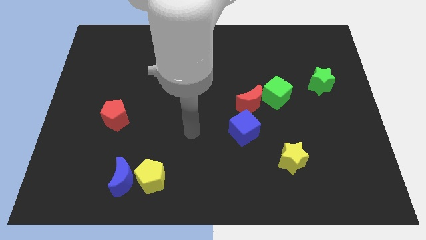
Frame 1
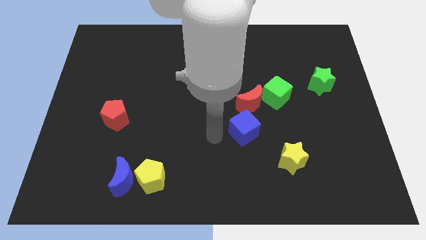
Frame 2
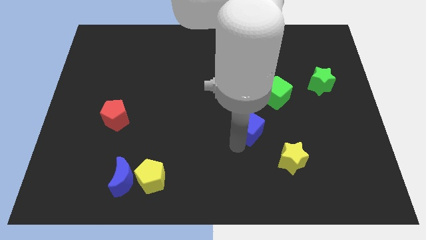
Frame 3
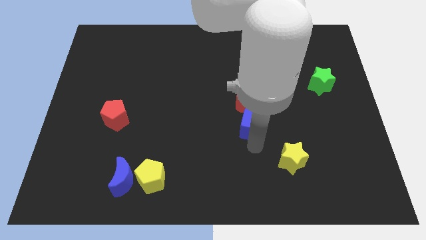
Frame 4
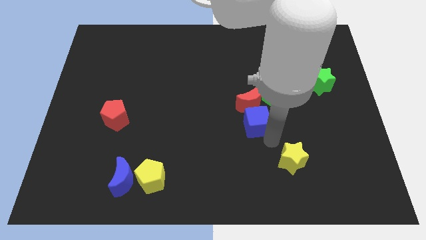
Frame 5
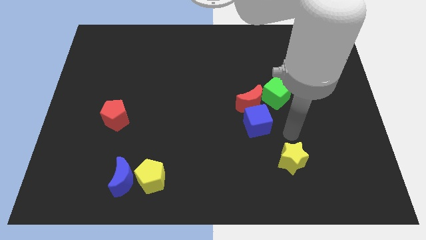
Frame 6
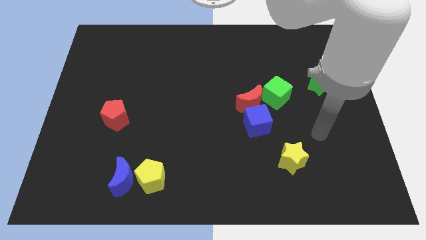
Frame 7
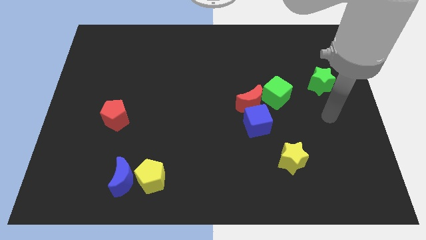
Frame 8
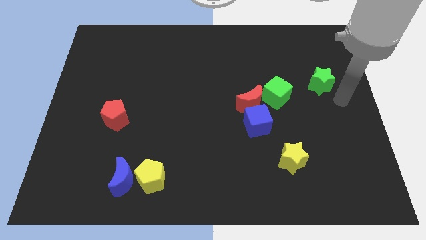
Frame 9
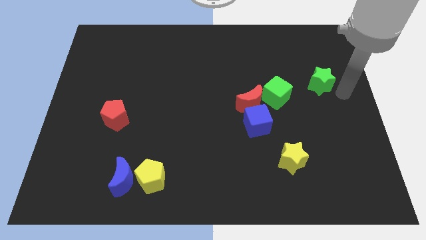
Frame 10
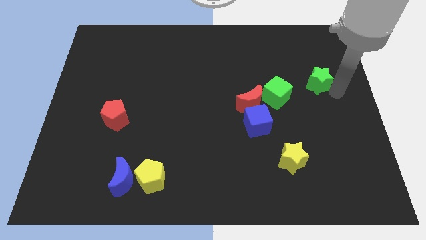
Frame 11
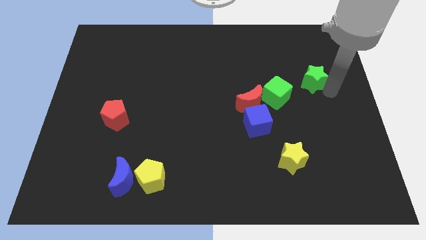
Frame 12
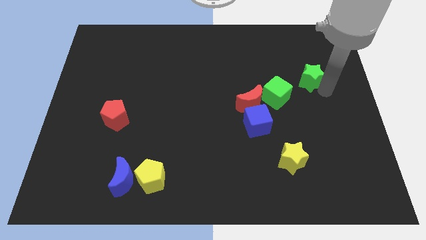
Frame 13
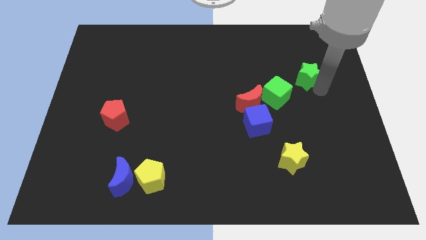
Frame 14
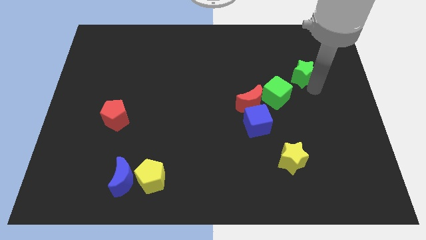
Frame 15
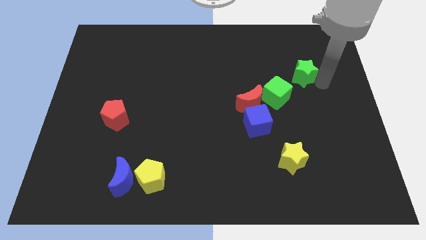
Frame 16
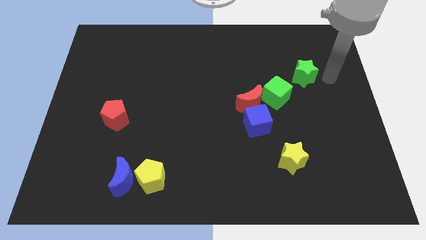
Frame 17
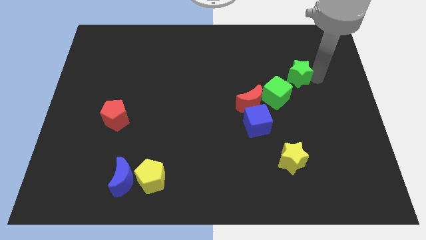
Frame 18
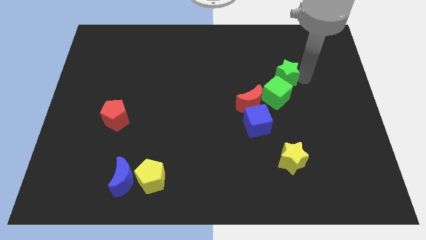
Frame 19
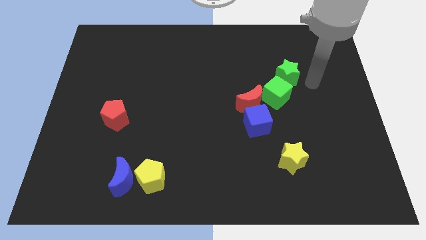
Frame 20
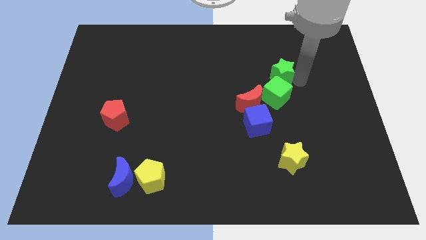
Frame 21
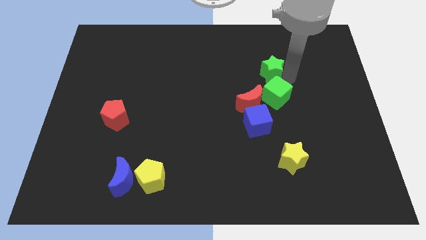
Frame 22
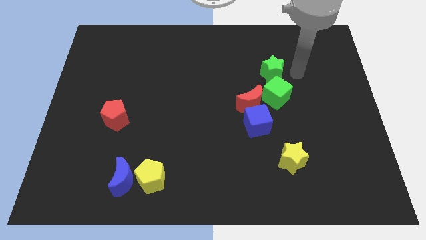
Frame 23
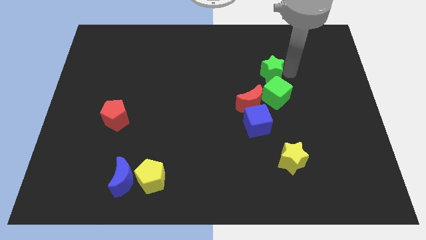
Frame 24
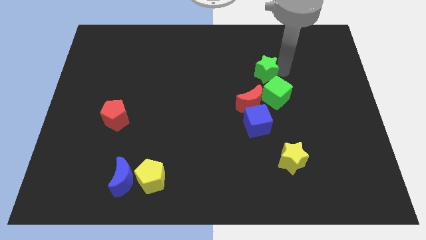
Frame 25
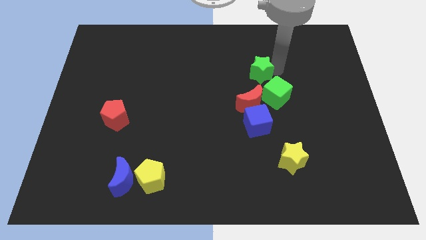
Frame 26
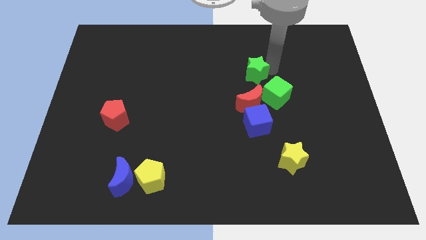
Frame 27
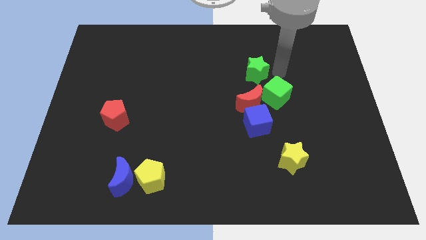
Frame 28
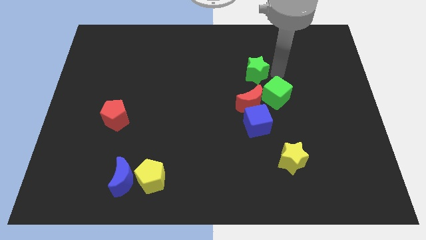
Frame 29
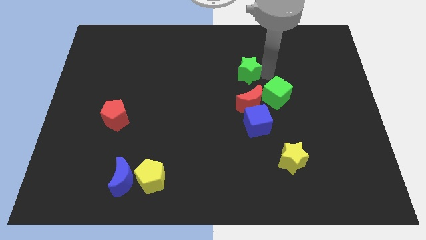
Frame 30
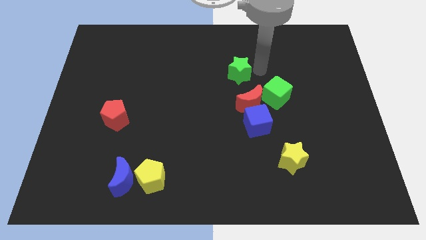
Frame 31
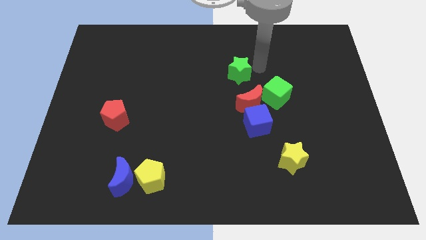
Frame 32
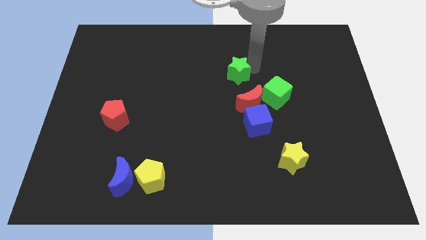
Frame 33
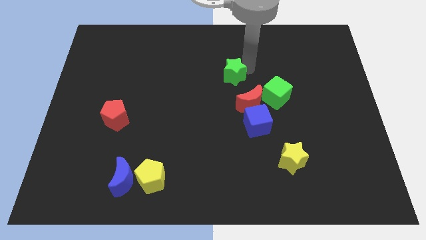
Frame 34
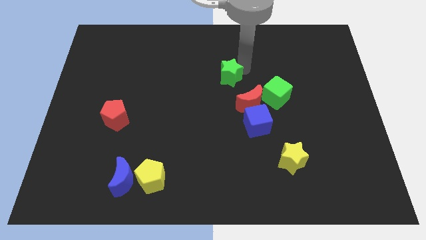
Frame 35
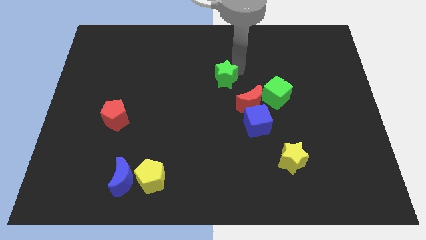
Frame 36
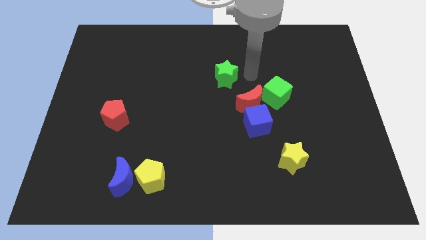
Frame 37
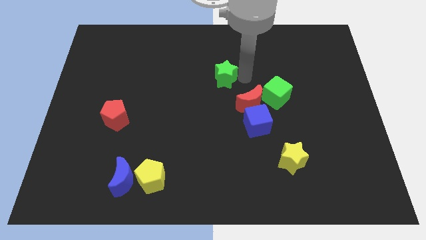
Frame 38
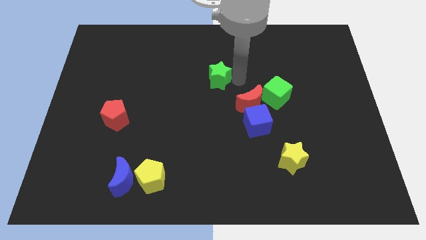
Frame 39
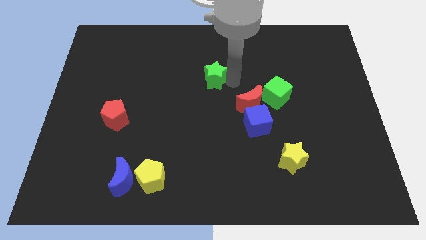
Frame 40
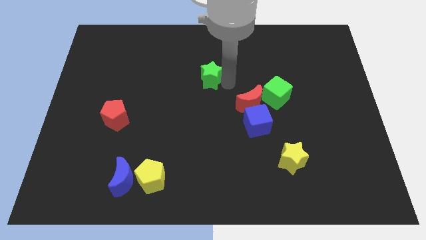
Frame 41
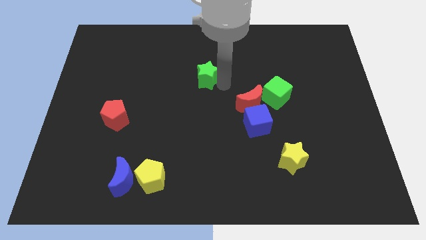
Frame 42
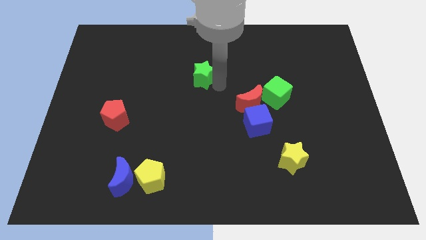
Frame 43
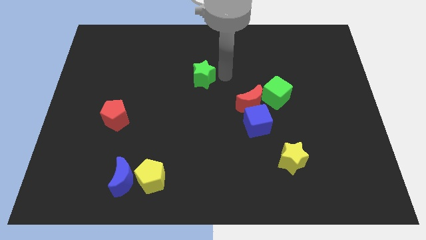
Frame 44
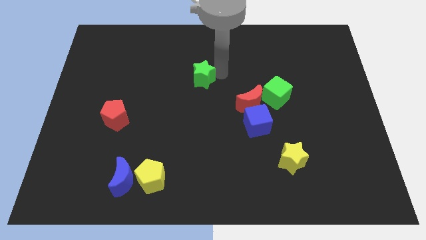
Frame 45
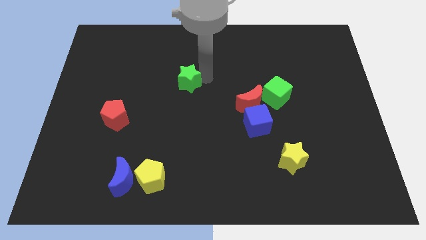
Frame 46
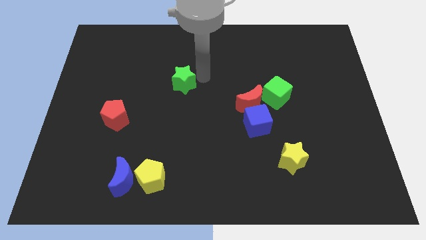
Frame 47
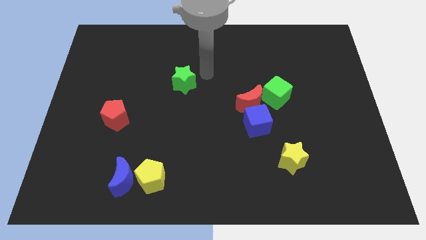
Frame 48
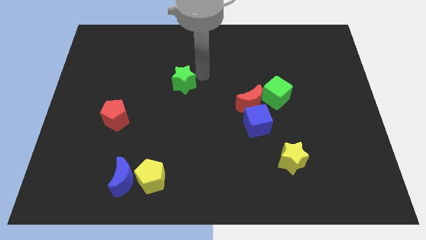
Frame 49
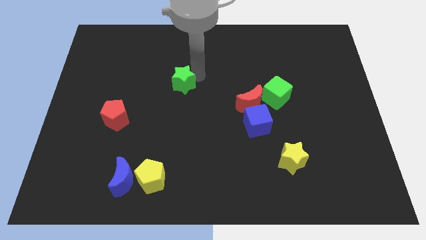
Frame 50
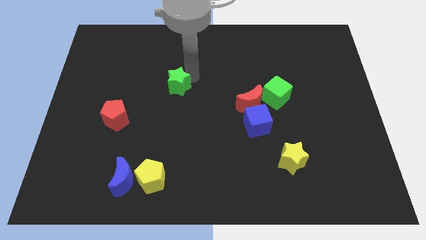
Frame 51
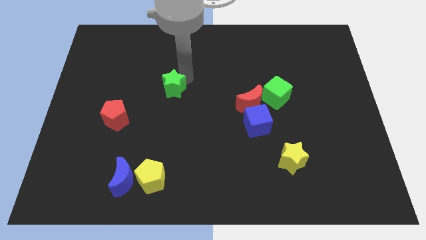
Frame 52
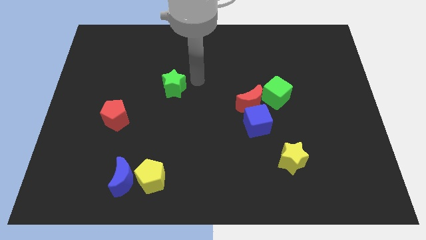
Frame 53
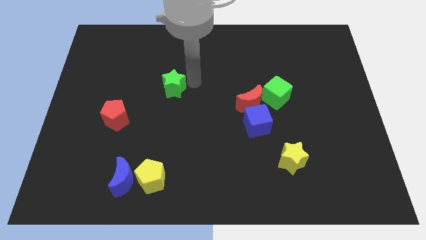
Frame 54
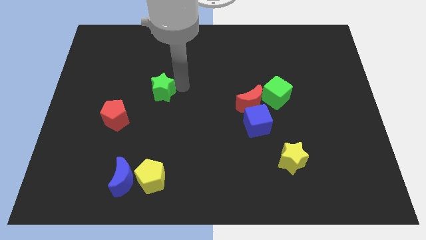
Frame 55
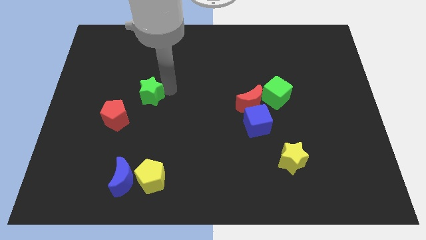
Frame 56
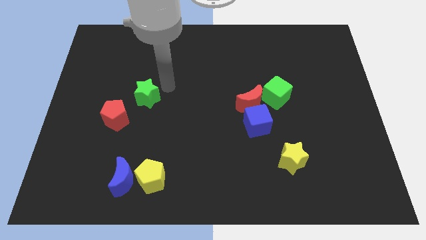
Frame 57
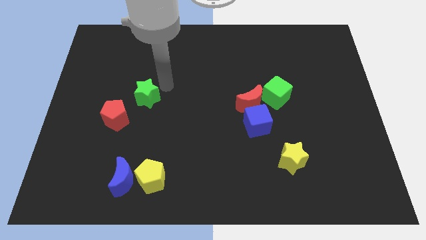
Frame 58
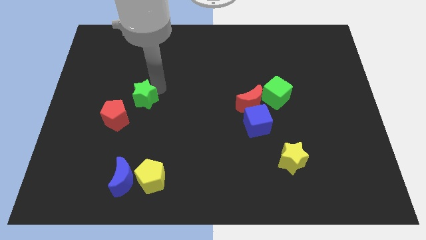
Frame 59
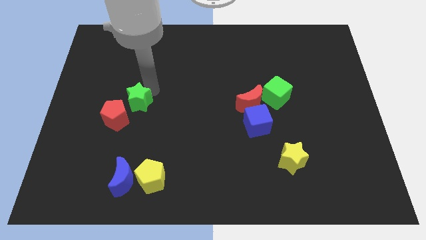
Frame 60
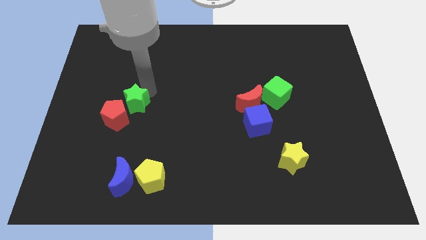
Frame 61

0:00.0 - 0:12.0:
slide the green star towards the red pentagon

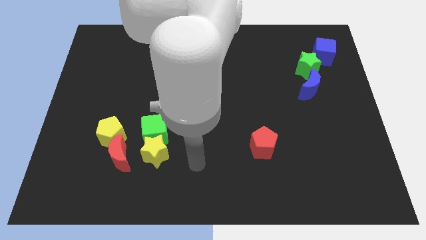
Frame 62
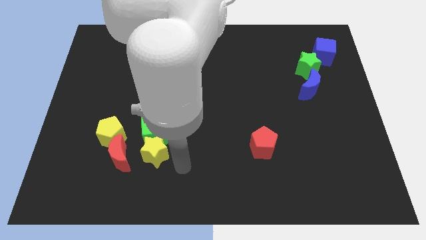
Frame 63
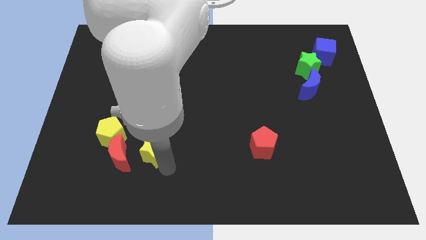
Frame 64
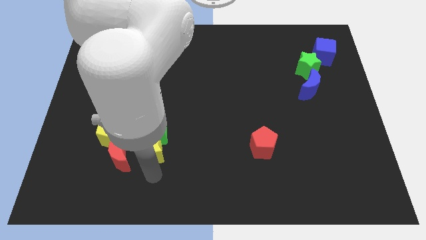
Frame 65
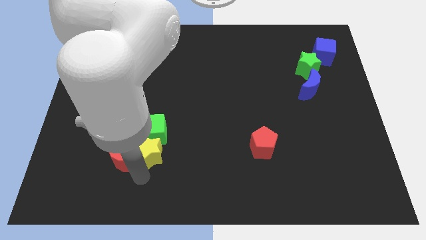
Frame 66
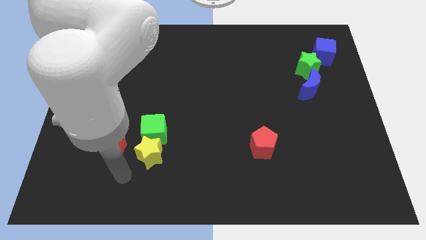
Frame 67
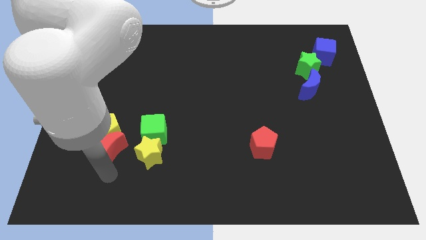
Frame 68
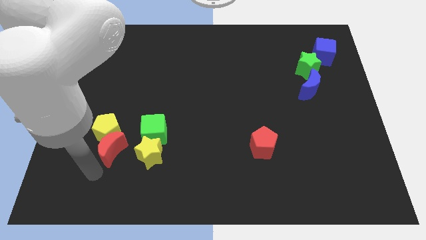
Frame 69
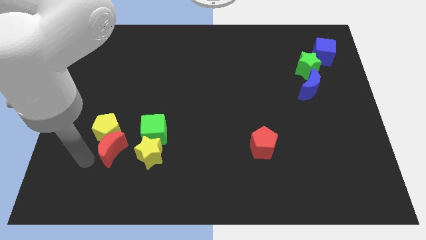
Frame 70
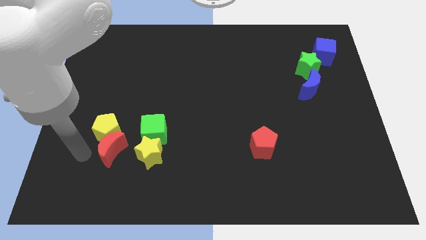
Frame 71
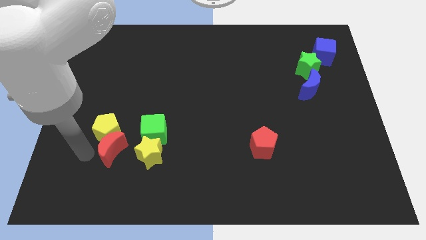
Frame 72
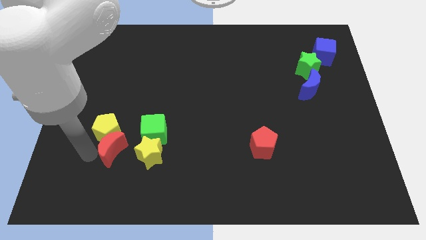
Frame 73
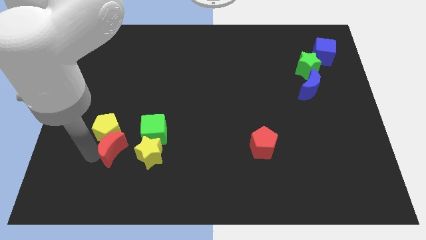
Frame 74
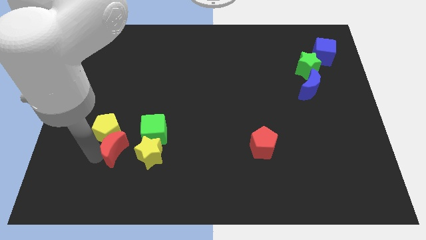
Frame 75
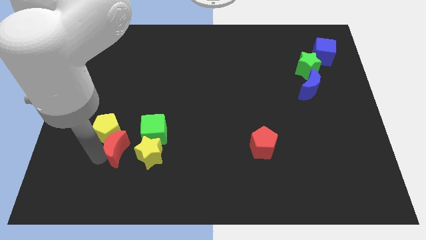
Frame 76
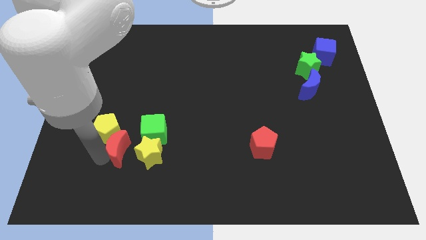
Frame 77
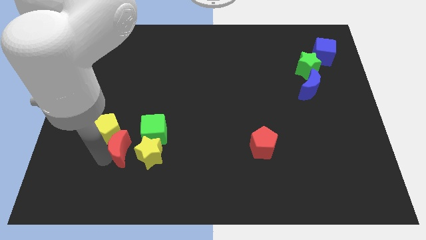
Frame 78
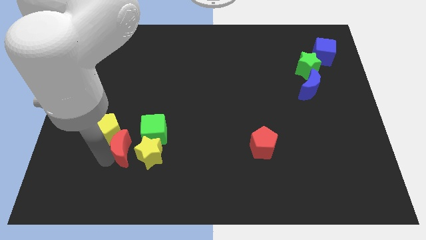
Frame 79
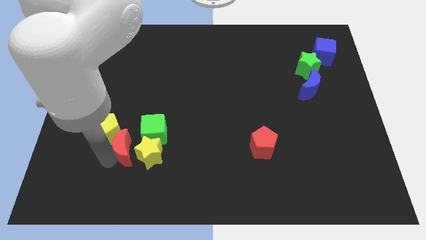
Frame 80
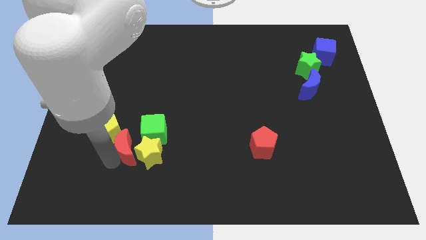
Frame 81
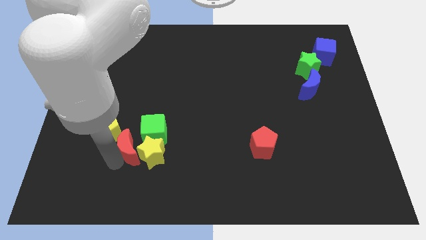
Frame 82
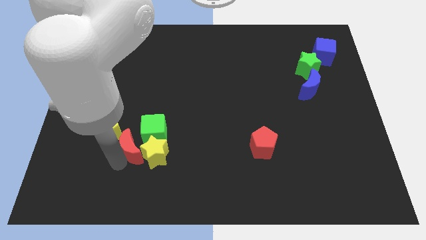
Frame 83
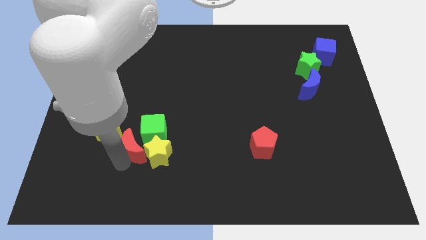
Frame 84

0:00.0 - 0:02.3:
push the red moon to the green cube
